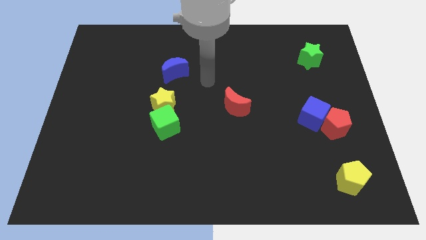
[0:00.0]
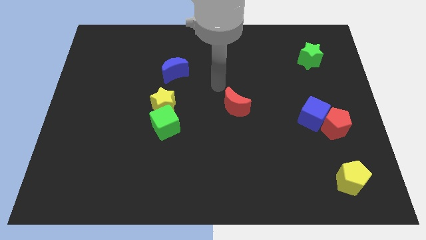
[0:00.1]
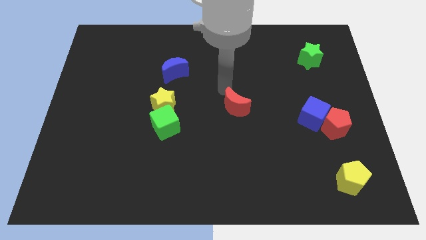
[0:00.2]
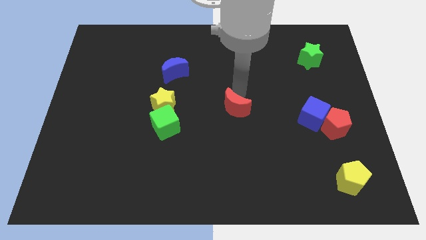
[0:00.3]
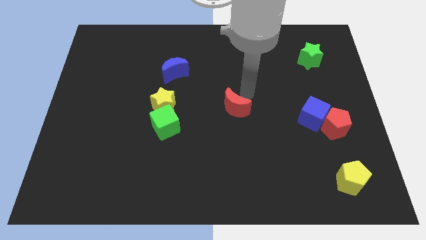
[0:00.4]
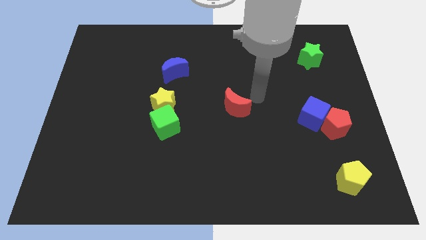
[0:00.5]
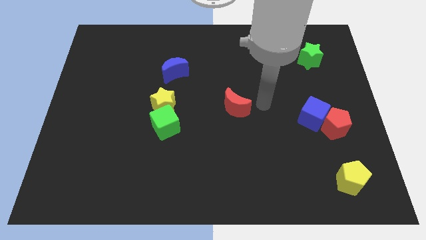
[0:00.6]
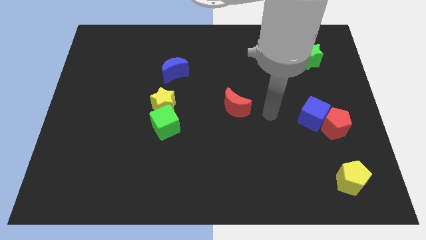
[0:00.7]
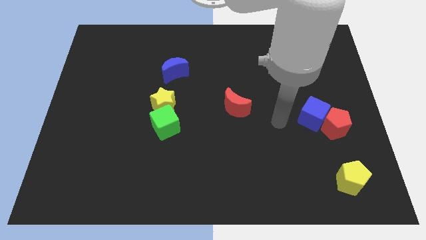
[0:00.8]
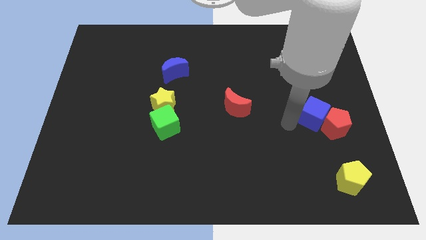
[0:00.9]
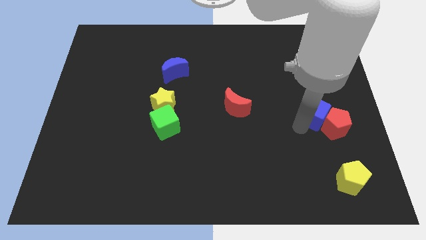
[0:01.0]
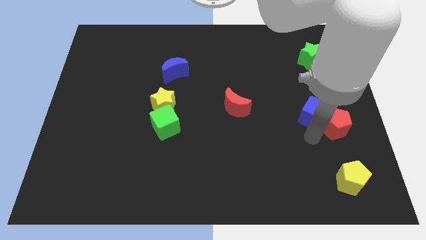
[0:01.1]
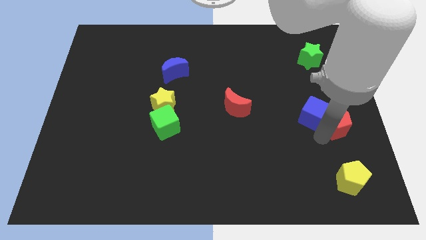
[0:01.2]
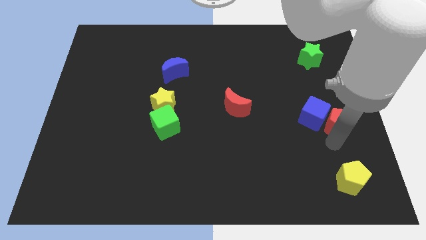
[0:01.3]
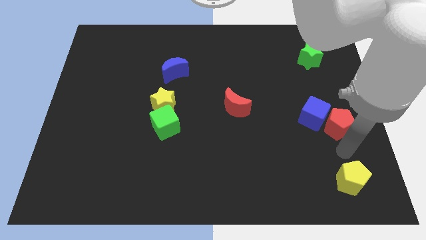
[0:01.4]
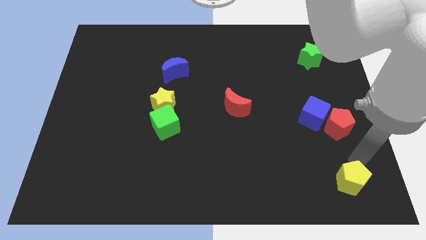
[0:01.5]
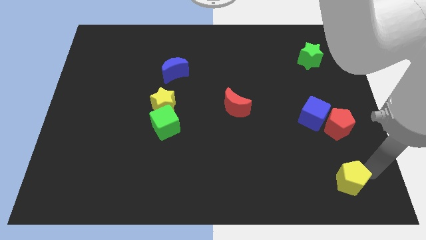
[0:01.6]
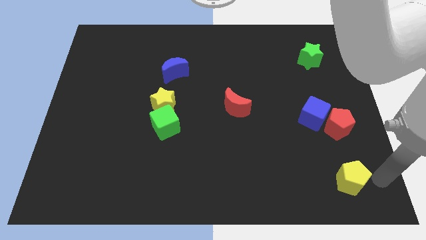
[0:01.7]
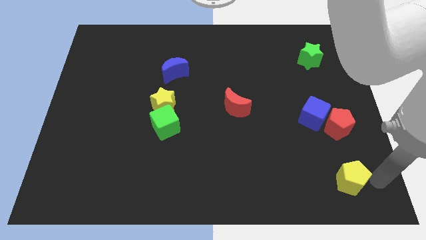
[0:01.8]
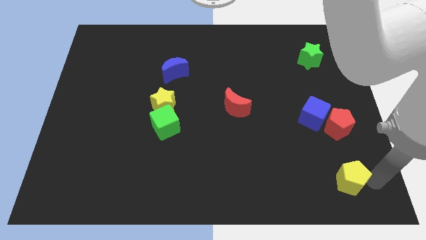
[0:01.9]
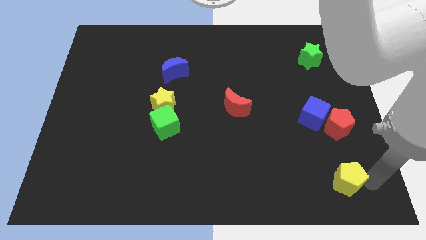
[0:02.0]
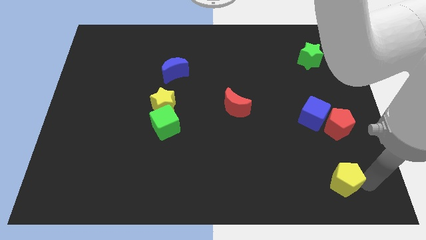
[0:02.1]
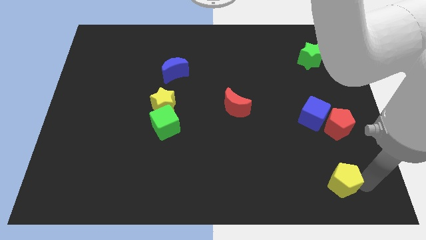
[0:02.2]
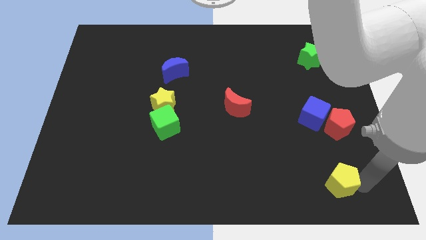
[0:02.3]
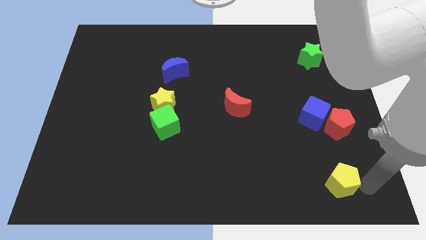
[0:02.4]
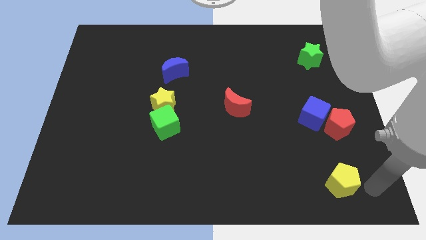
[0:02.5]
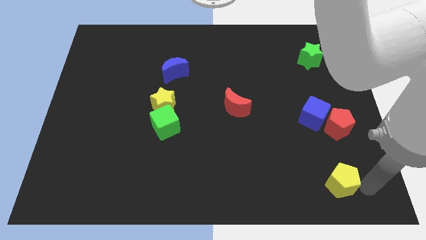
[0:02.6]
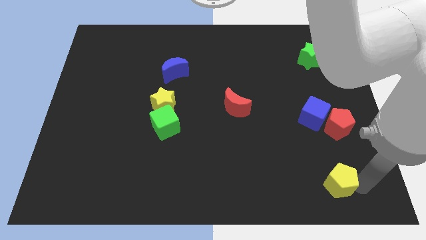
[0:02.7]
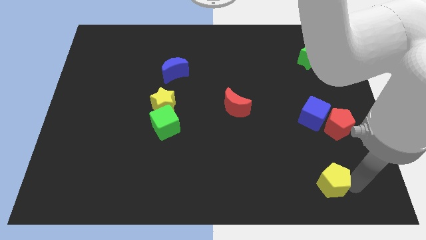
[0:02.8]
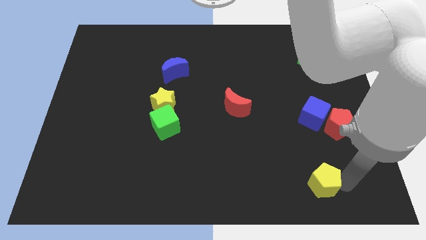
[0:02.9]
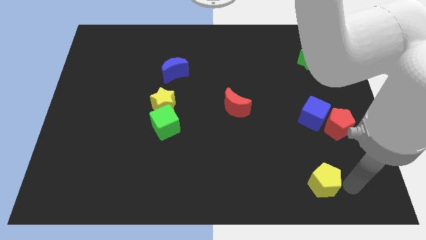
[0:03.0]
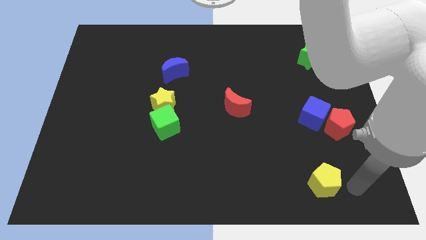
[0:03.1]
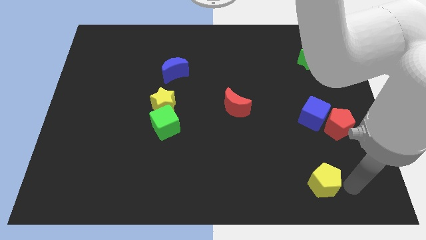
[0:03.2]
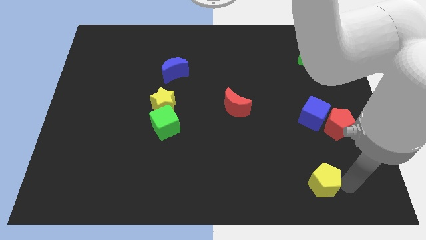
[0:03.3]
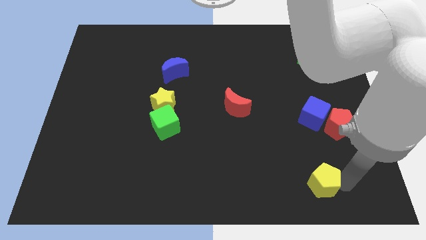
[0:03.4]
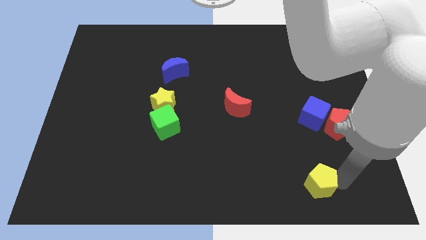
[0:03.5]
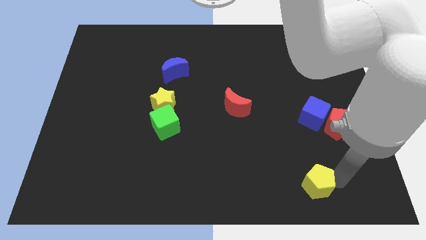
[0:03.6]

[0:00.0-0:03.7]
slightly slide the yellow pentagon to the left

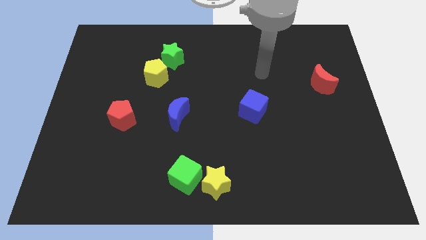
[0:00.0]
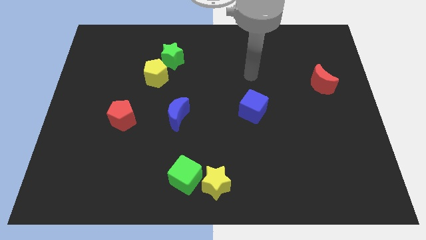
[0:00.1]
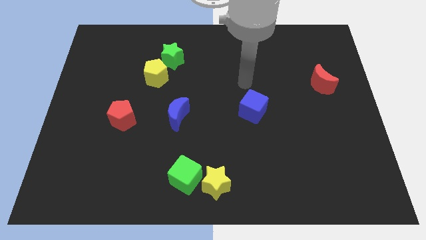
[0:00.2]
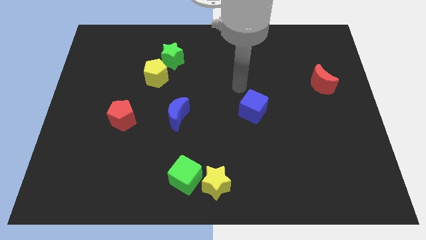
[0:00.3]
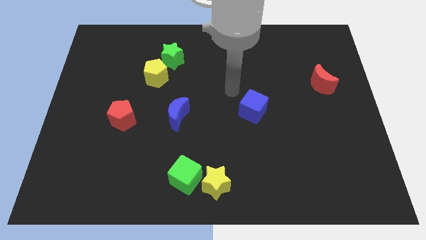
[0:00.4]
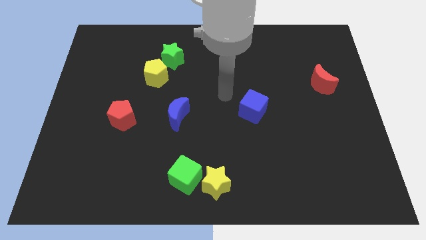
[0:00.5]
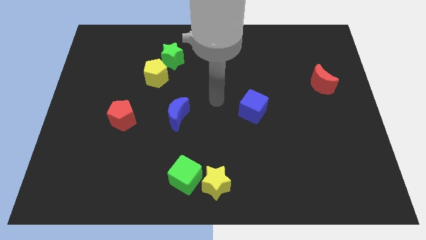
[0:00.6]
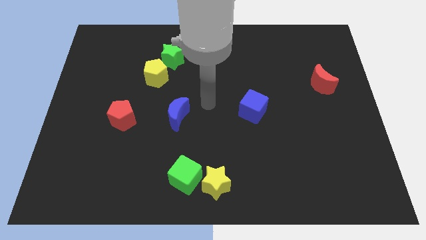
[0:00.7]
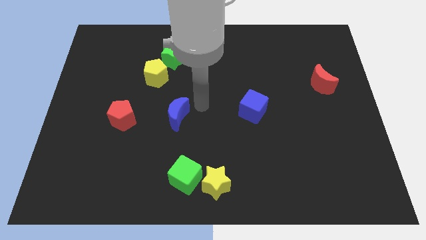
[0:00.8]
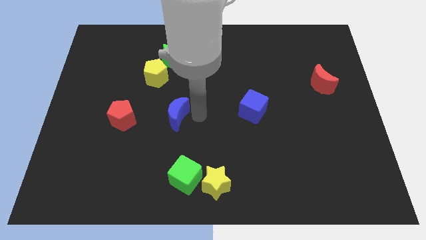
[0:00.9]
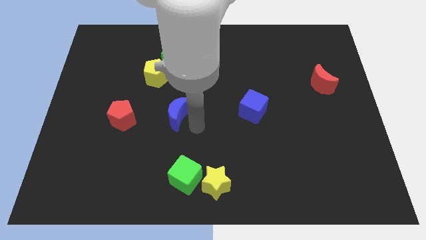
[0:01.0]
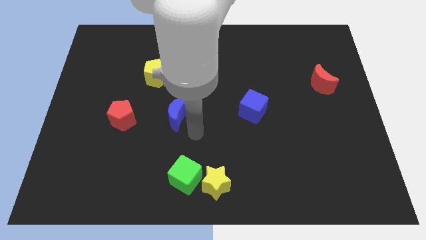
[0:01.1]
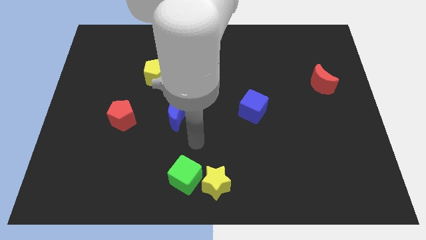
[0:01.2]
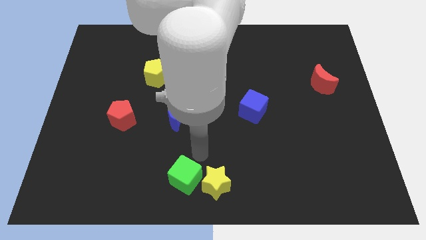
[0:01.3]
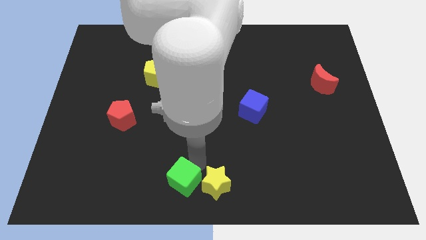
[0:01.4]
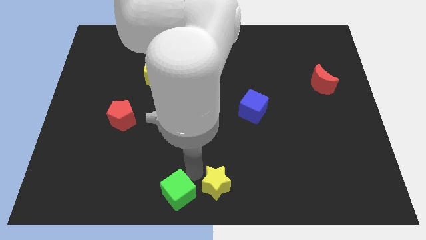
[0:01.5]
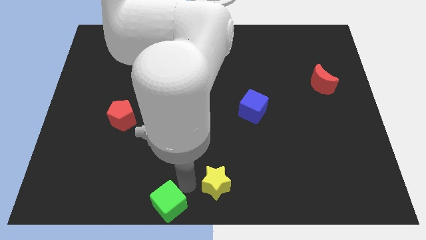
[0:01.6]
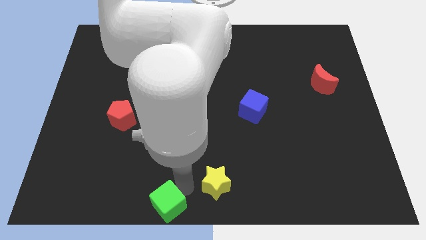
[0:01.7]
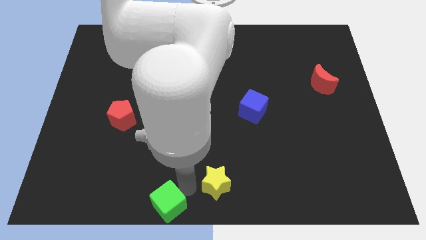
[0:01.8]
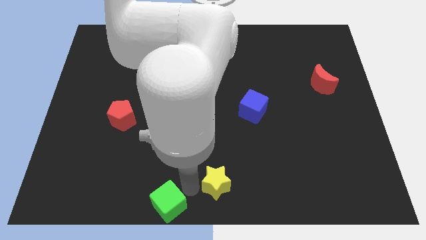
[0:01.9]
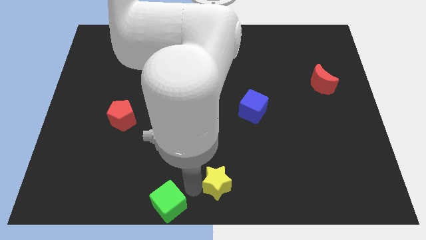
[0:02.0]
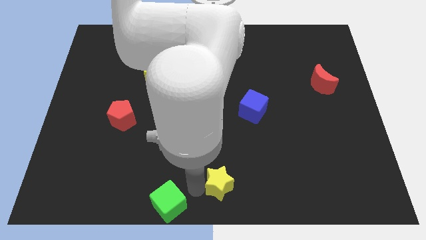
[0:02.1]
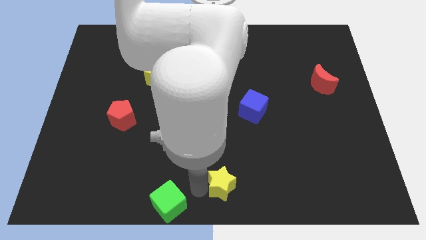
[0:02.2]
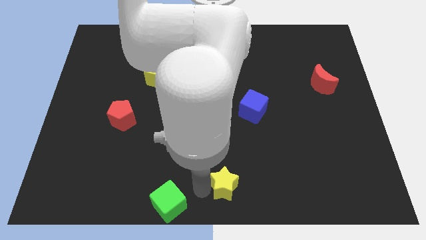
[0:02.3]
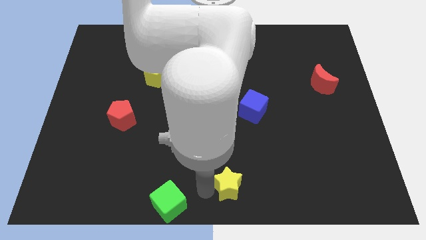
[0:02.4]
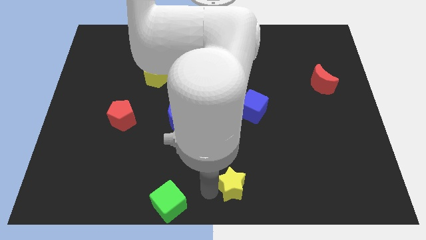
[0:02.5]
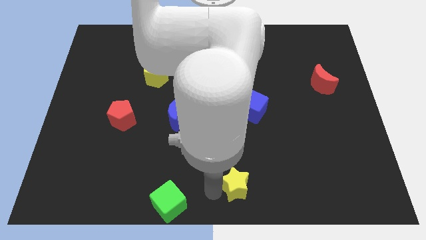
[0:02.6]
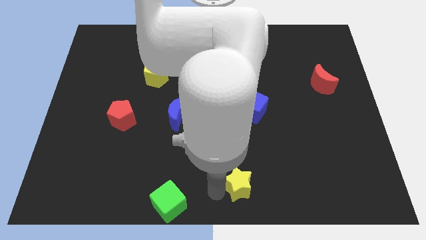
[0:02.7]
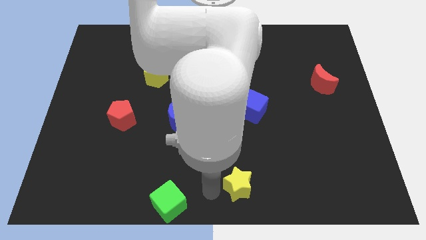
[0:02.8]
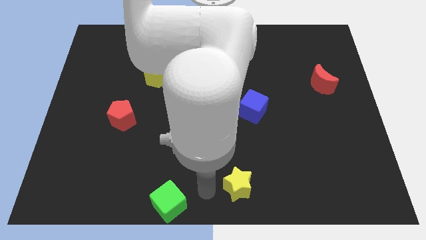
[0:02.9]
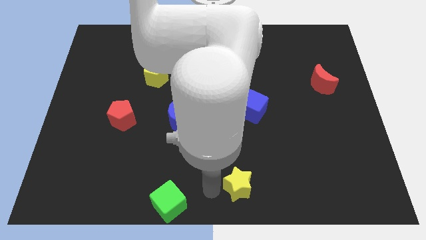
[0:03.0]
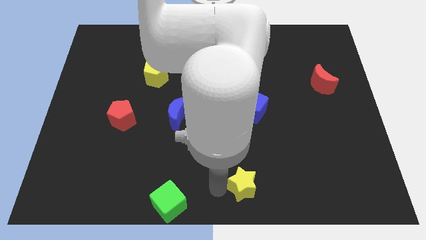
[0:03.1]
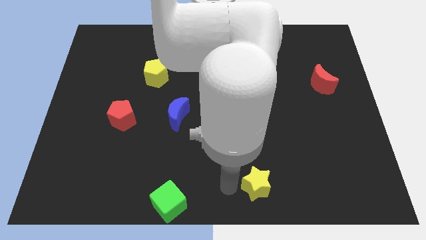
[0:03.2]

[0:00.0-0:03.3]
slide the yellow star somewhat to the right

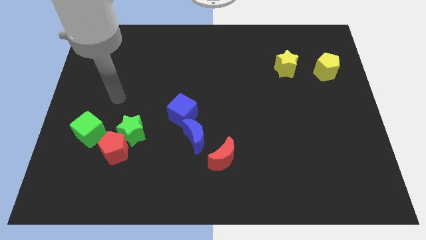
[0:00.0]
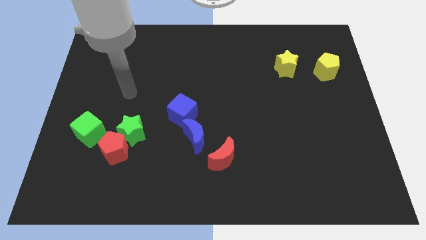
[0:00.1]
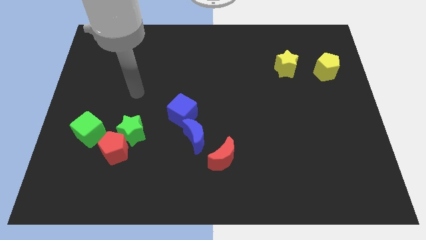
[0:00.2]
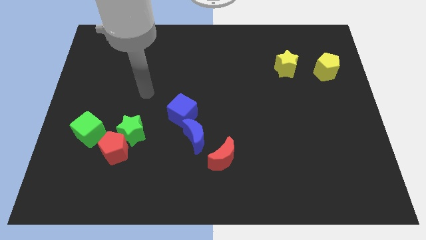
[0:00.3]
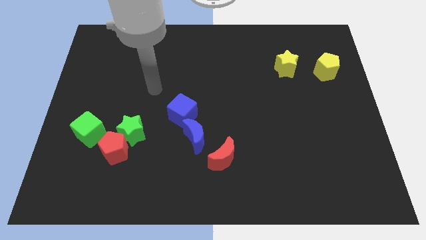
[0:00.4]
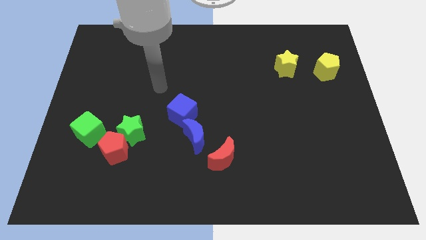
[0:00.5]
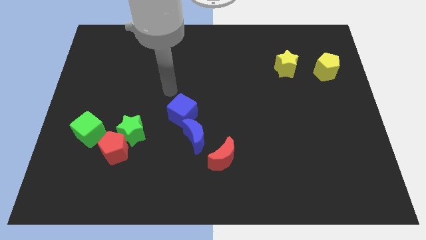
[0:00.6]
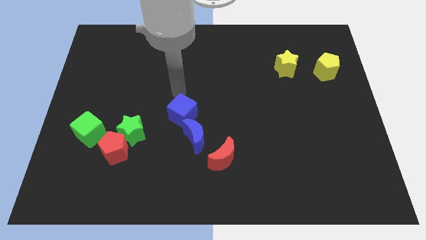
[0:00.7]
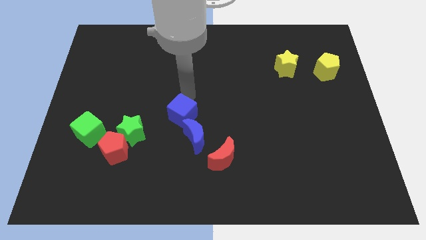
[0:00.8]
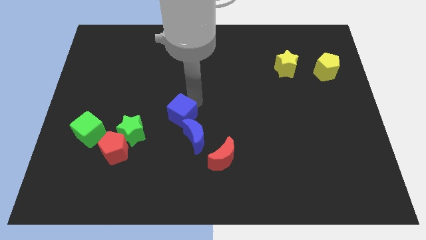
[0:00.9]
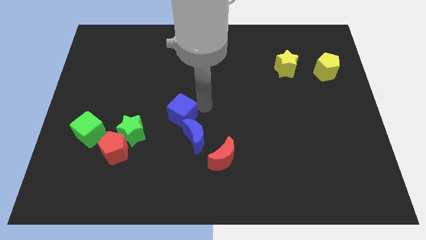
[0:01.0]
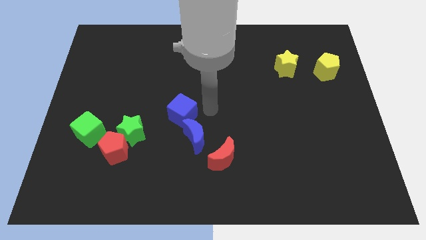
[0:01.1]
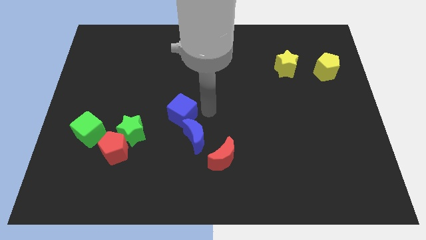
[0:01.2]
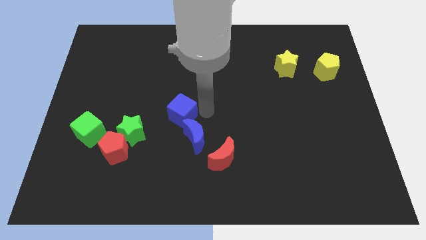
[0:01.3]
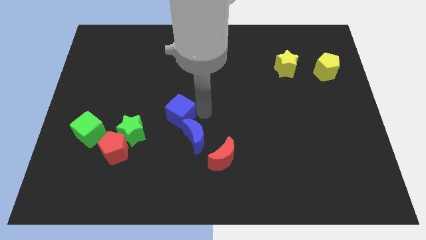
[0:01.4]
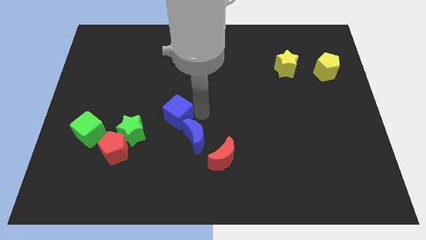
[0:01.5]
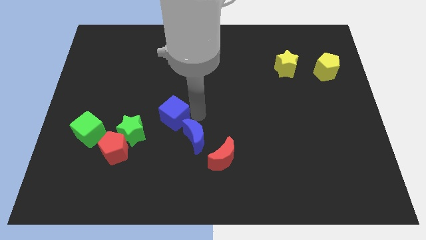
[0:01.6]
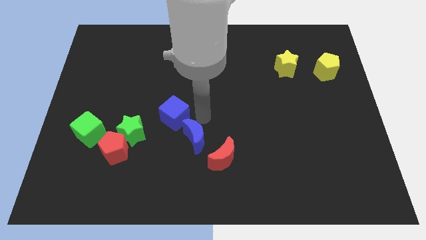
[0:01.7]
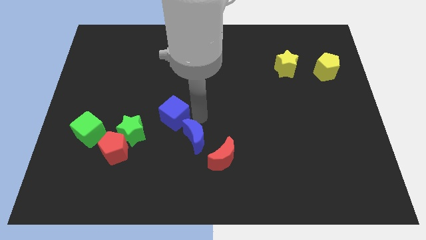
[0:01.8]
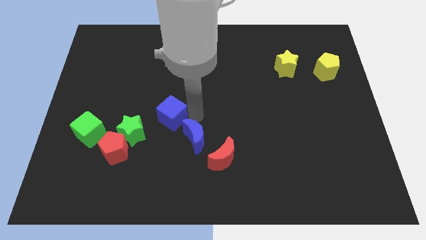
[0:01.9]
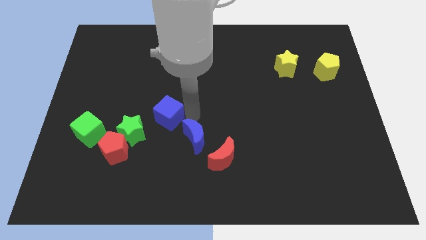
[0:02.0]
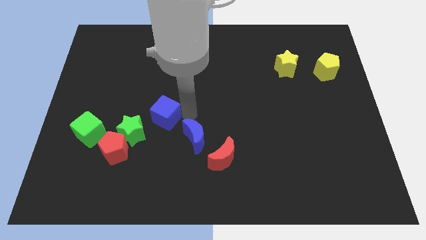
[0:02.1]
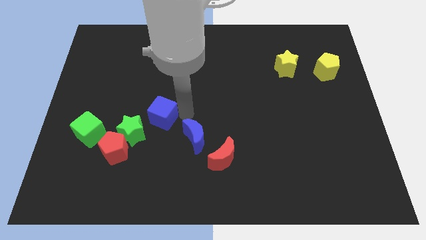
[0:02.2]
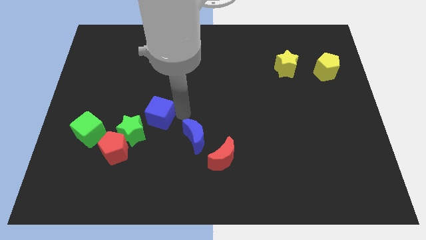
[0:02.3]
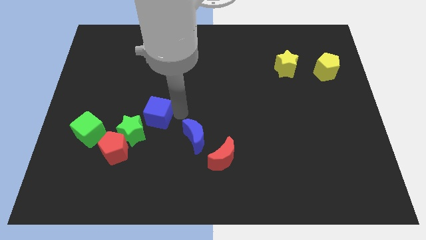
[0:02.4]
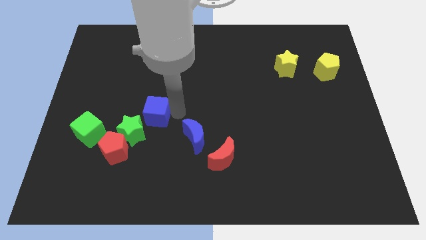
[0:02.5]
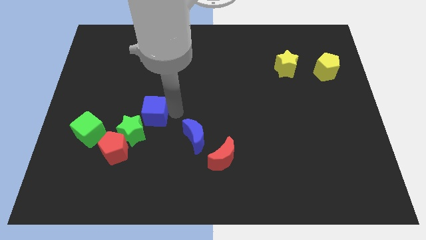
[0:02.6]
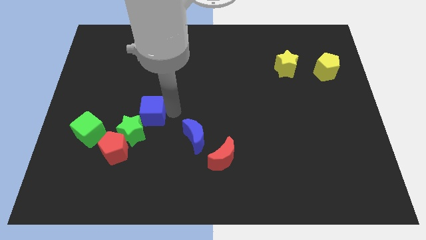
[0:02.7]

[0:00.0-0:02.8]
push the blue cube left somewhat
